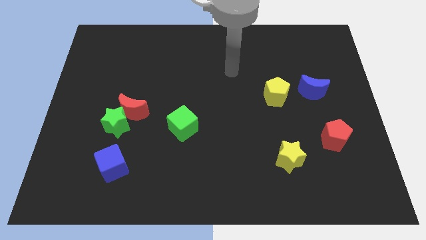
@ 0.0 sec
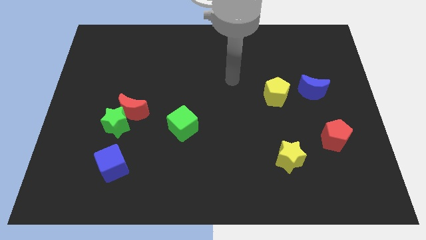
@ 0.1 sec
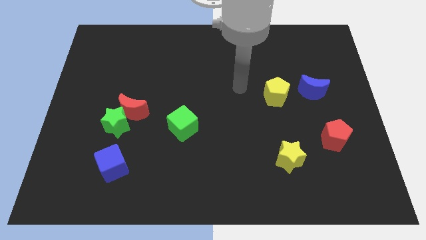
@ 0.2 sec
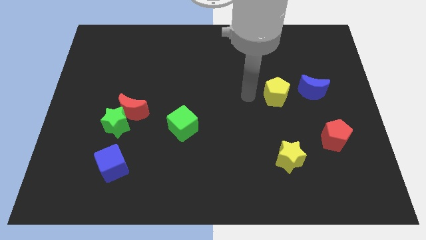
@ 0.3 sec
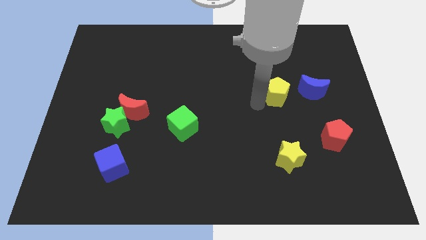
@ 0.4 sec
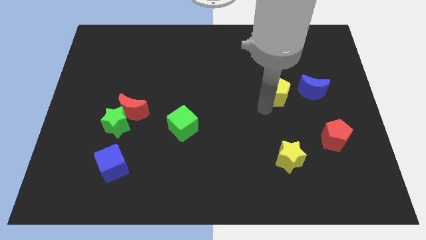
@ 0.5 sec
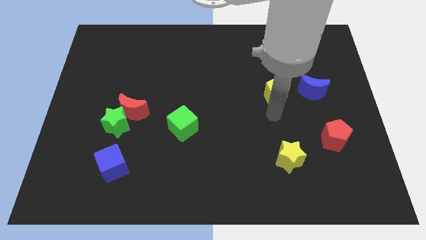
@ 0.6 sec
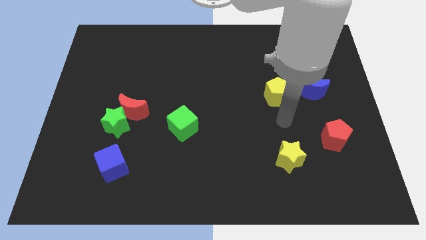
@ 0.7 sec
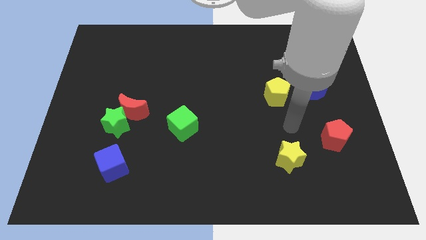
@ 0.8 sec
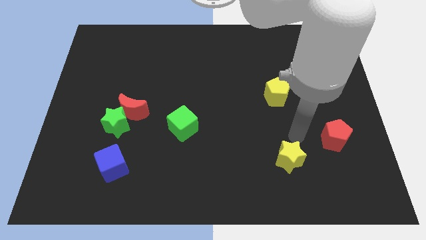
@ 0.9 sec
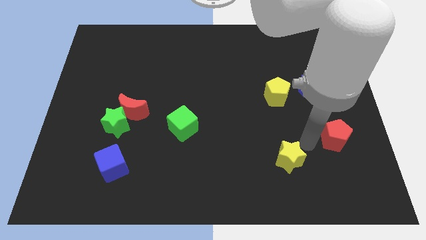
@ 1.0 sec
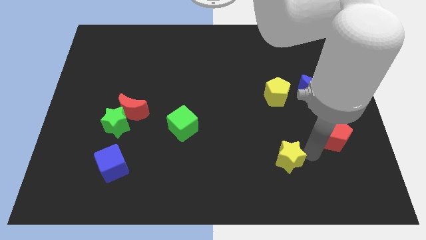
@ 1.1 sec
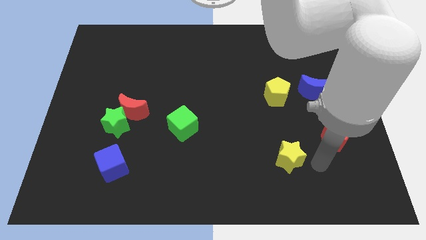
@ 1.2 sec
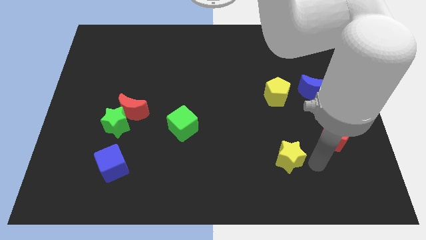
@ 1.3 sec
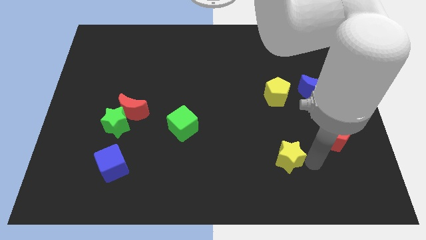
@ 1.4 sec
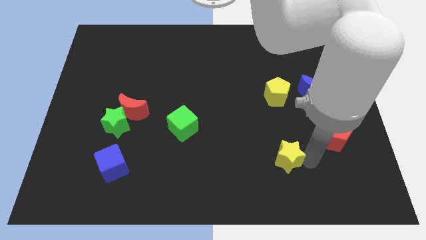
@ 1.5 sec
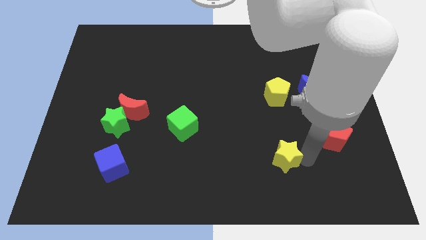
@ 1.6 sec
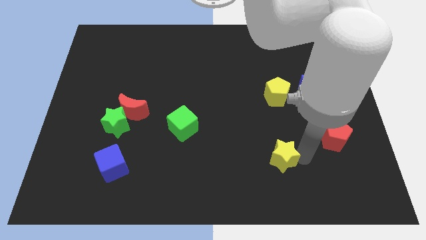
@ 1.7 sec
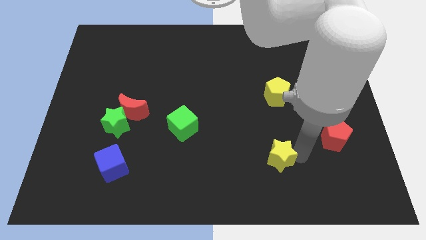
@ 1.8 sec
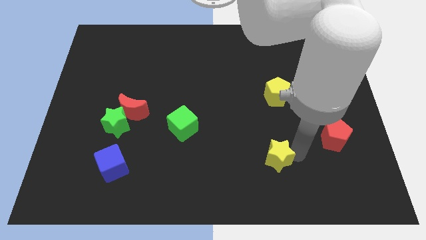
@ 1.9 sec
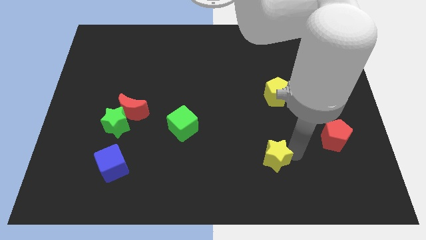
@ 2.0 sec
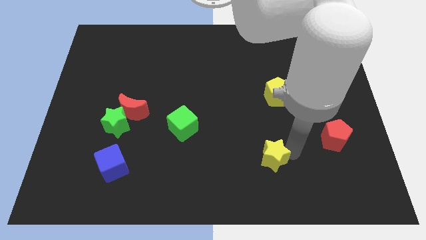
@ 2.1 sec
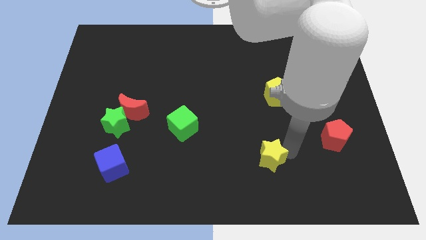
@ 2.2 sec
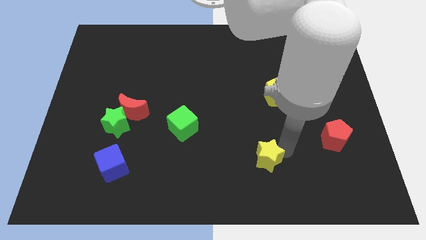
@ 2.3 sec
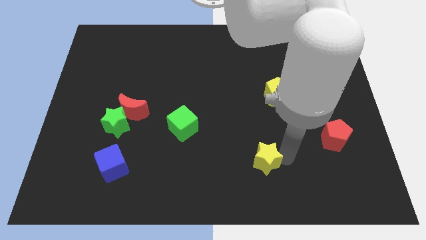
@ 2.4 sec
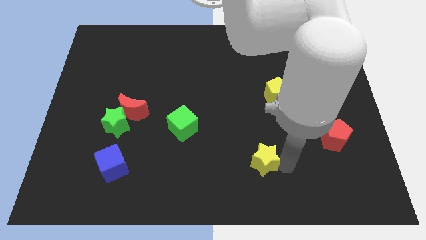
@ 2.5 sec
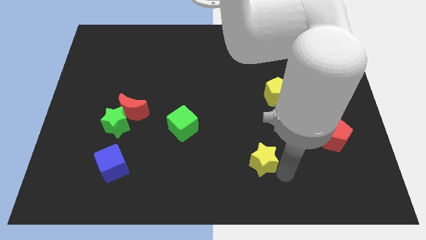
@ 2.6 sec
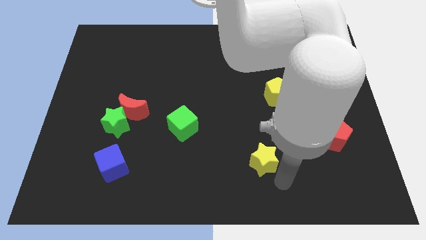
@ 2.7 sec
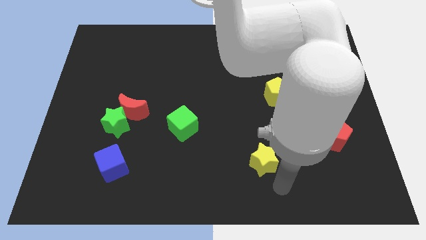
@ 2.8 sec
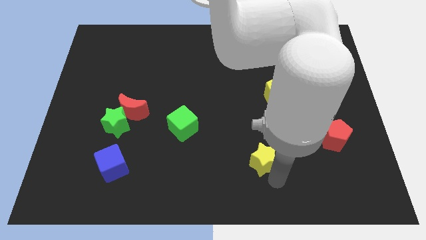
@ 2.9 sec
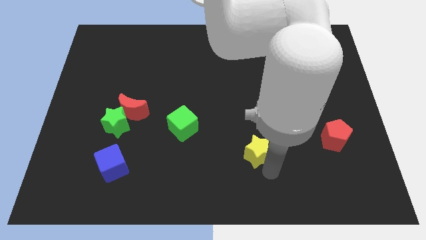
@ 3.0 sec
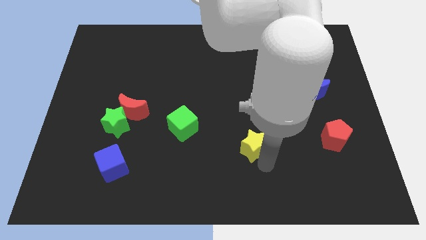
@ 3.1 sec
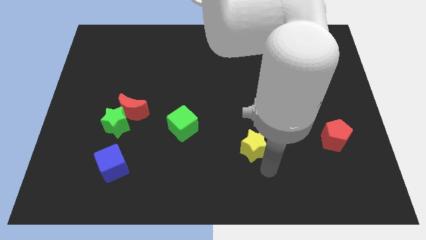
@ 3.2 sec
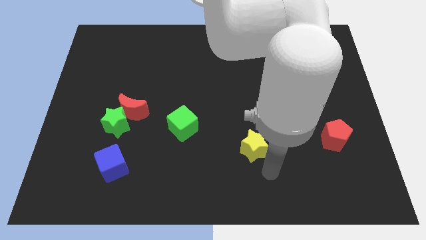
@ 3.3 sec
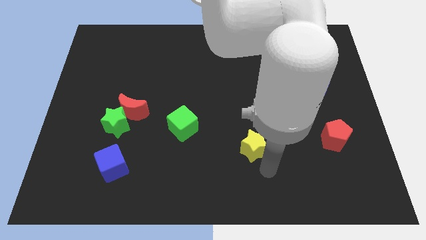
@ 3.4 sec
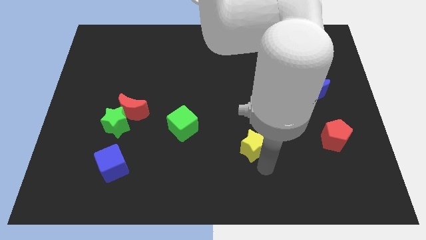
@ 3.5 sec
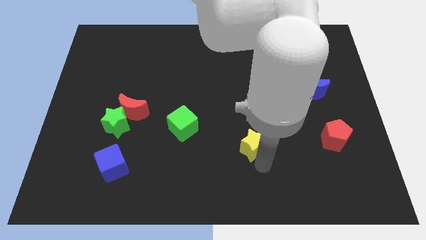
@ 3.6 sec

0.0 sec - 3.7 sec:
move the yellow star upwards and then left a little

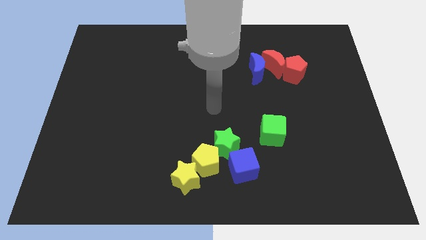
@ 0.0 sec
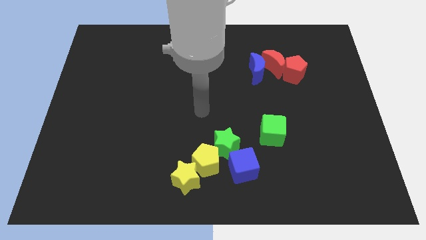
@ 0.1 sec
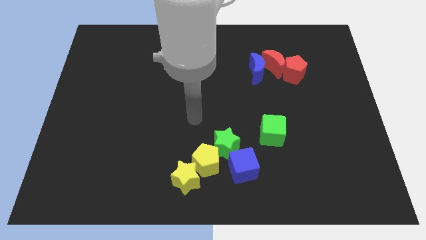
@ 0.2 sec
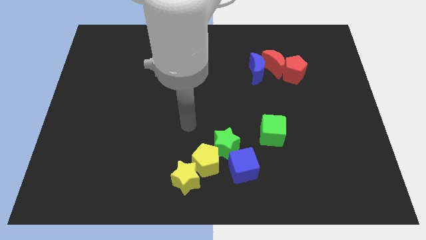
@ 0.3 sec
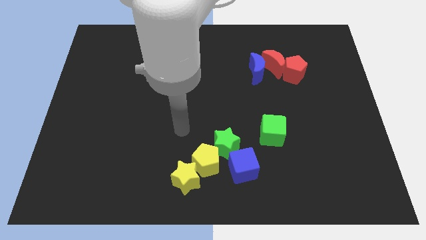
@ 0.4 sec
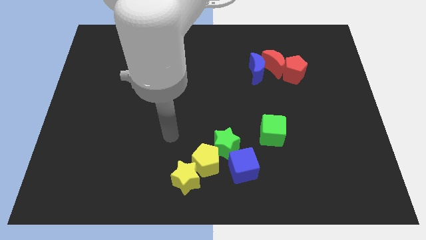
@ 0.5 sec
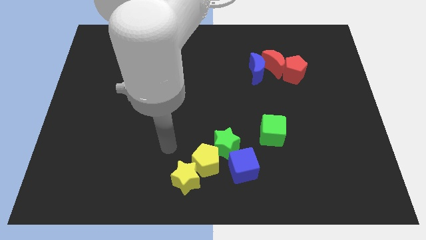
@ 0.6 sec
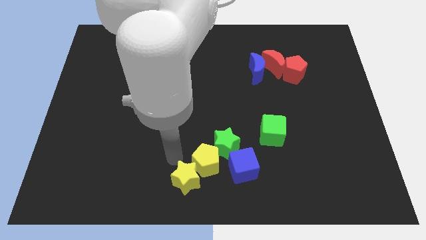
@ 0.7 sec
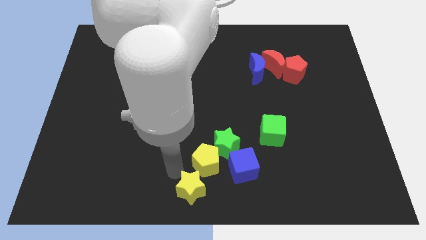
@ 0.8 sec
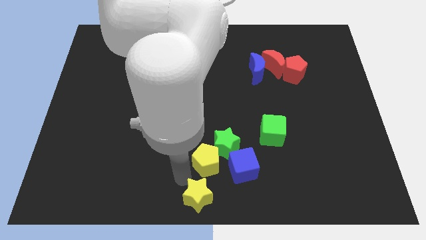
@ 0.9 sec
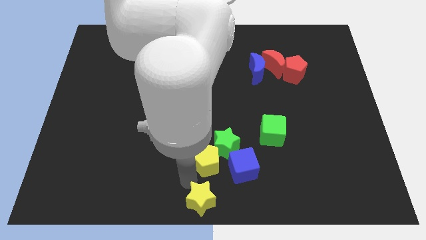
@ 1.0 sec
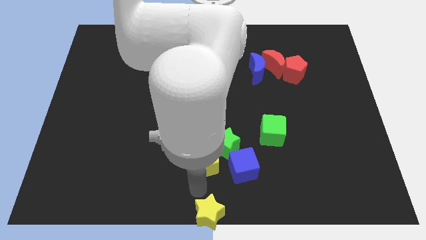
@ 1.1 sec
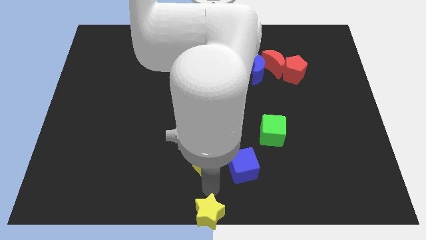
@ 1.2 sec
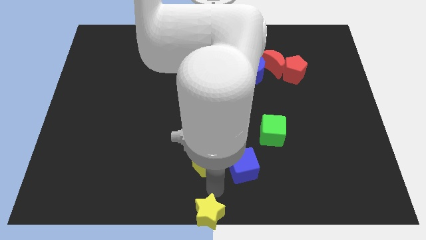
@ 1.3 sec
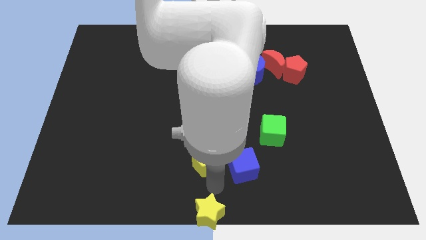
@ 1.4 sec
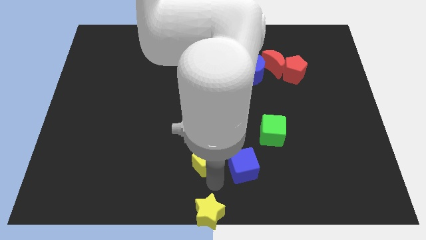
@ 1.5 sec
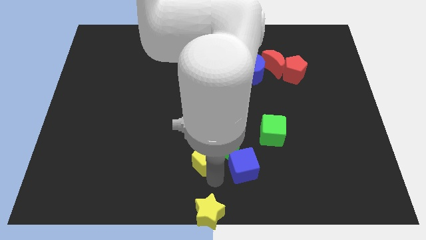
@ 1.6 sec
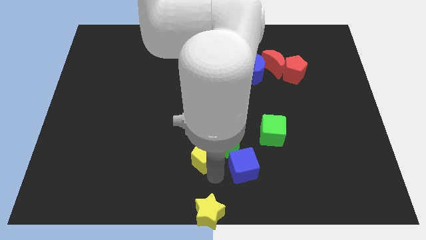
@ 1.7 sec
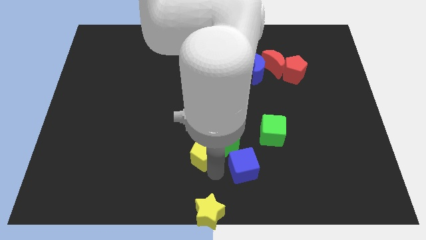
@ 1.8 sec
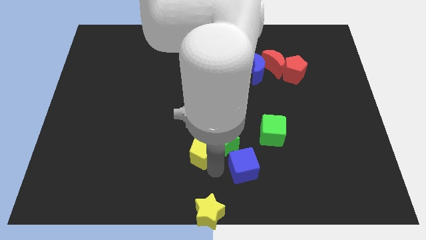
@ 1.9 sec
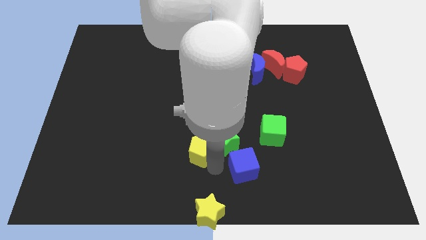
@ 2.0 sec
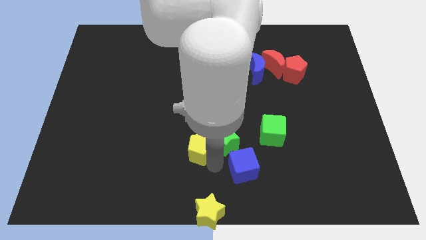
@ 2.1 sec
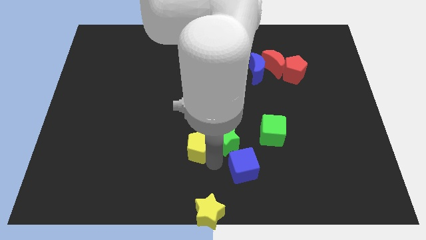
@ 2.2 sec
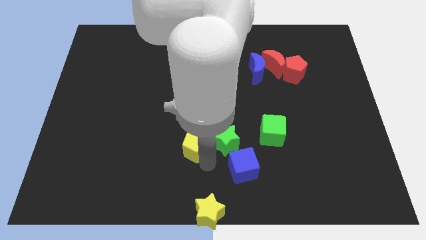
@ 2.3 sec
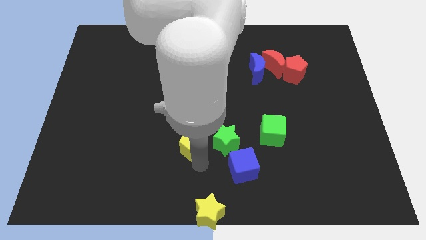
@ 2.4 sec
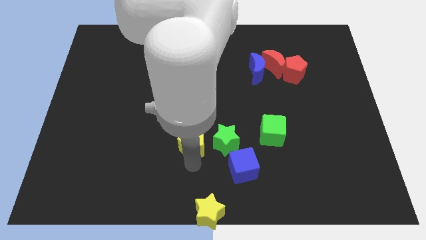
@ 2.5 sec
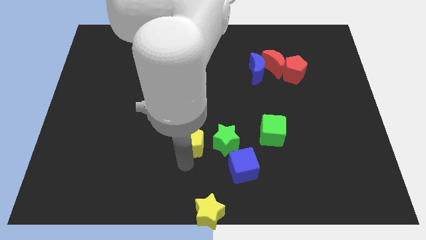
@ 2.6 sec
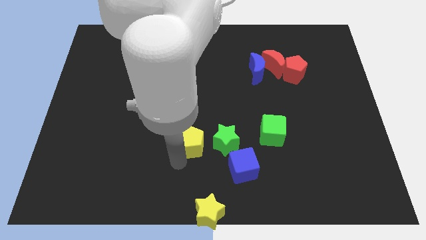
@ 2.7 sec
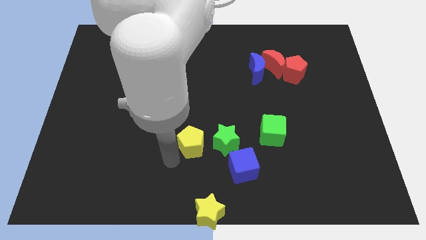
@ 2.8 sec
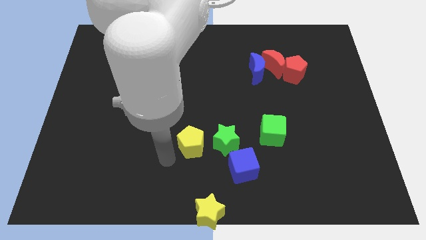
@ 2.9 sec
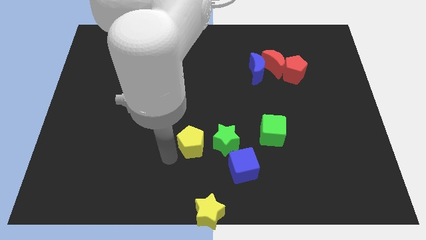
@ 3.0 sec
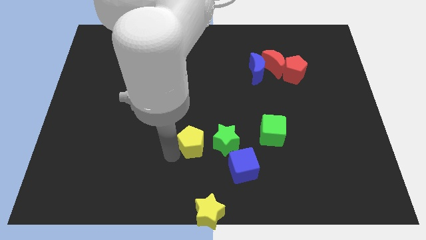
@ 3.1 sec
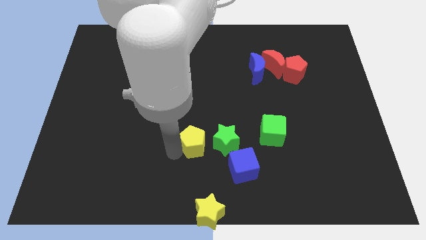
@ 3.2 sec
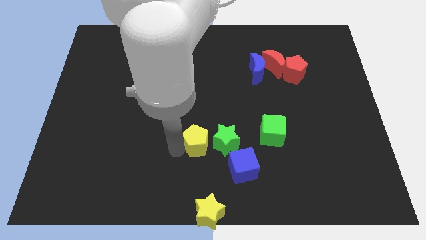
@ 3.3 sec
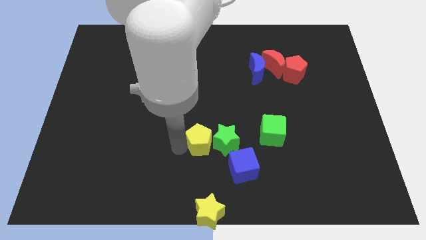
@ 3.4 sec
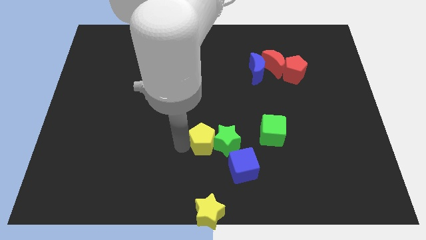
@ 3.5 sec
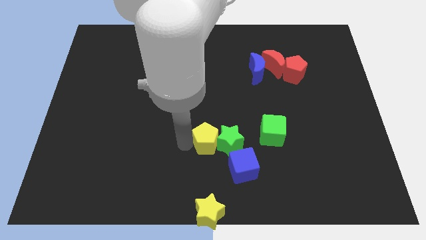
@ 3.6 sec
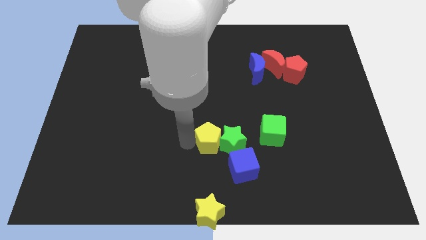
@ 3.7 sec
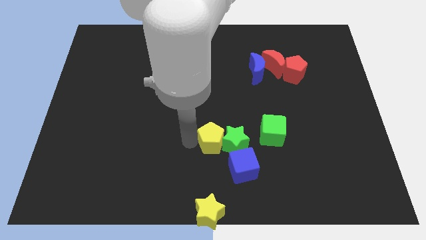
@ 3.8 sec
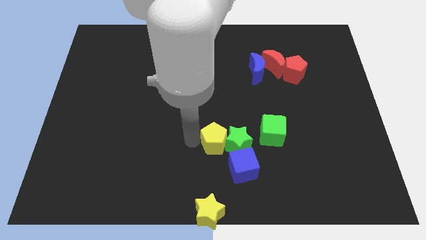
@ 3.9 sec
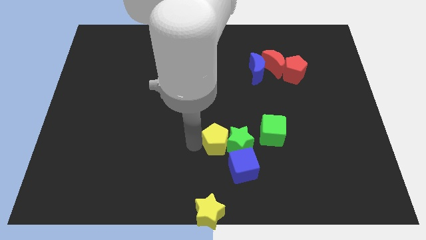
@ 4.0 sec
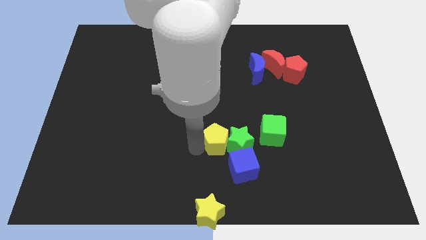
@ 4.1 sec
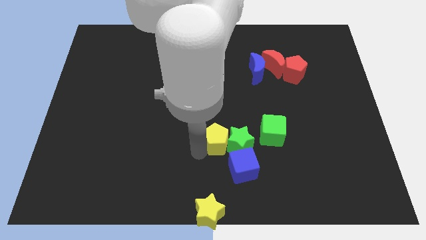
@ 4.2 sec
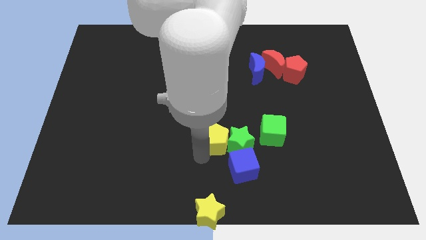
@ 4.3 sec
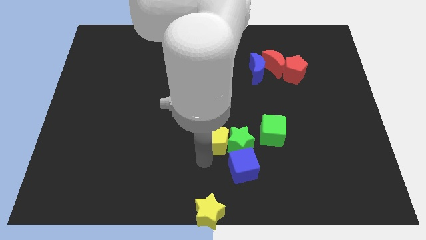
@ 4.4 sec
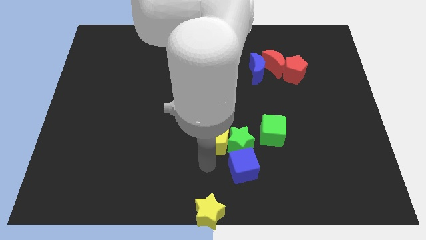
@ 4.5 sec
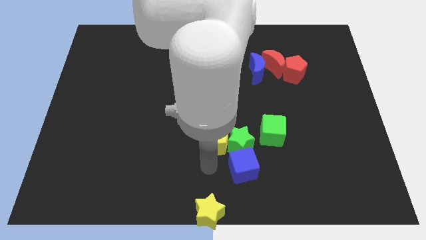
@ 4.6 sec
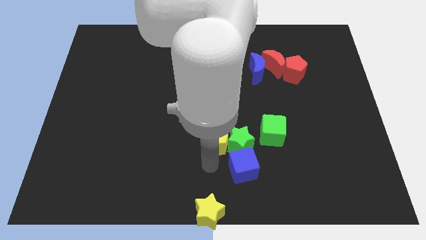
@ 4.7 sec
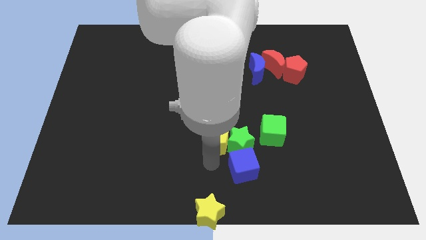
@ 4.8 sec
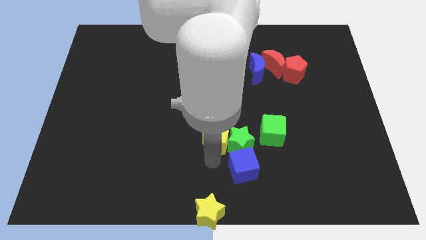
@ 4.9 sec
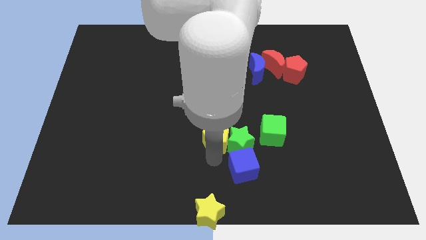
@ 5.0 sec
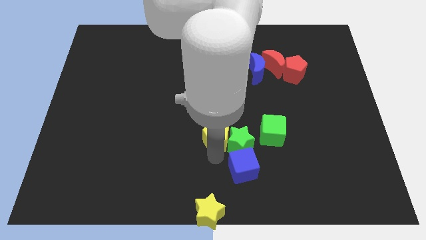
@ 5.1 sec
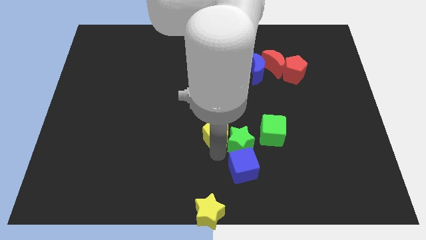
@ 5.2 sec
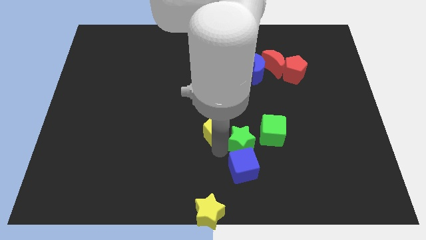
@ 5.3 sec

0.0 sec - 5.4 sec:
slide the yellow pentagon upwards slightly
